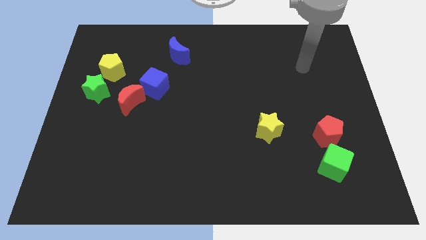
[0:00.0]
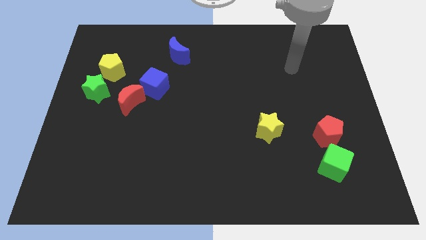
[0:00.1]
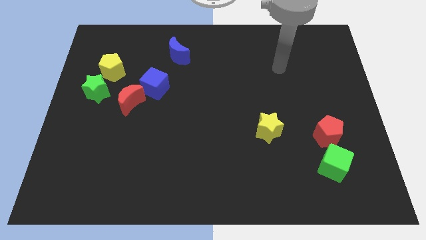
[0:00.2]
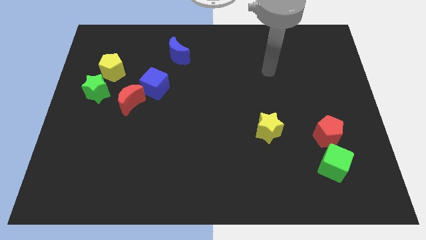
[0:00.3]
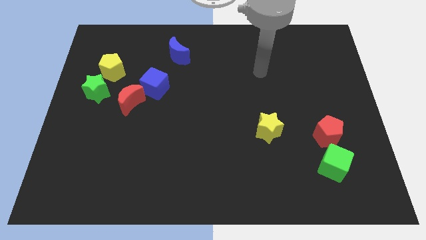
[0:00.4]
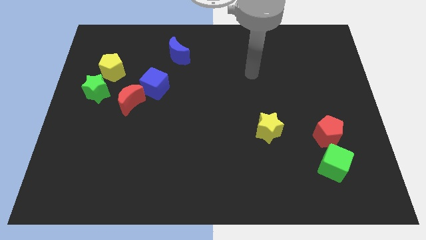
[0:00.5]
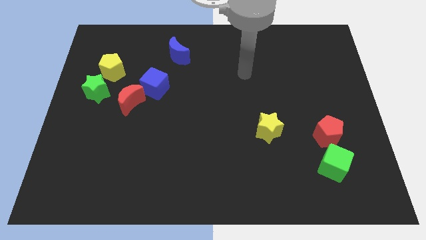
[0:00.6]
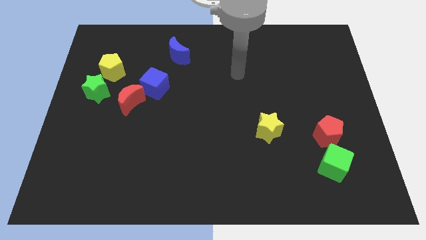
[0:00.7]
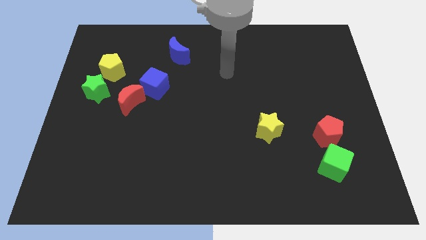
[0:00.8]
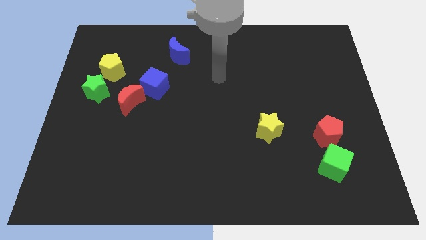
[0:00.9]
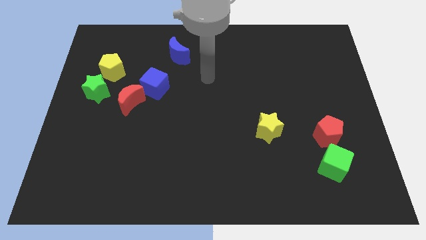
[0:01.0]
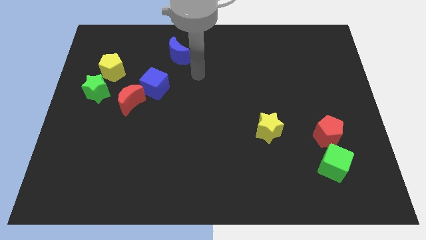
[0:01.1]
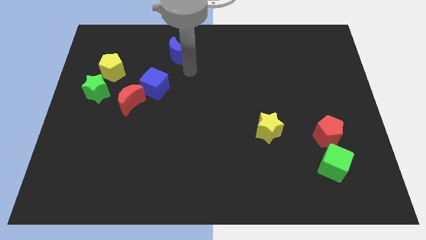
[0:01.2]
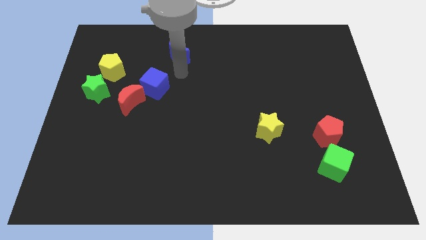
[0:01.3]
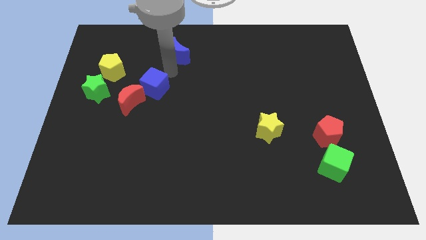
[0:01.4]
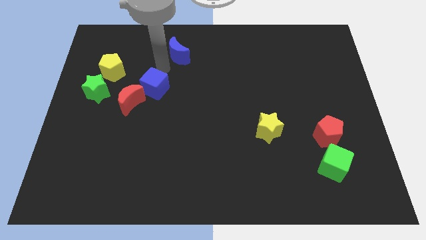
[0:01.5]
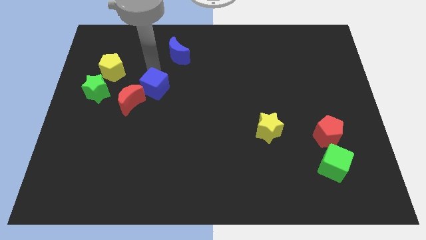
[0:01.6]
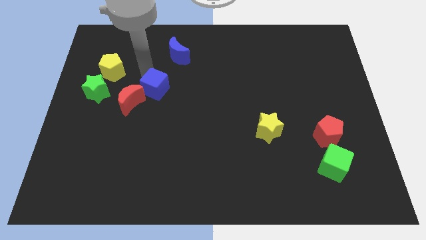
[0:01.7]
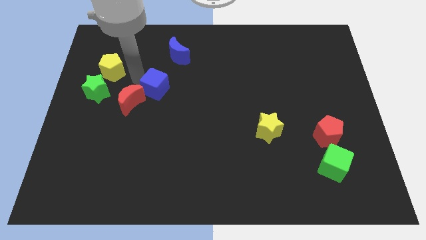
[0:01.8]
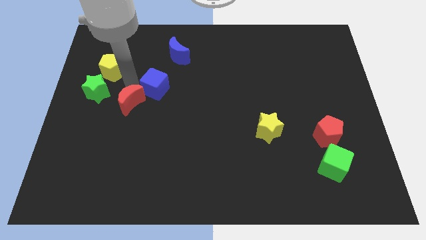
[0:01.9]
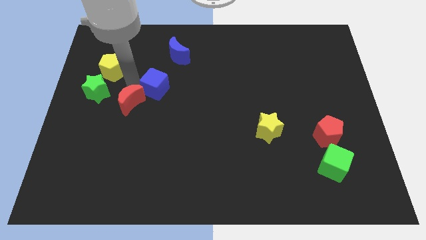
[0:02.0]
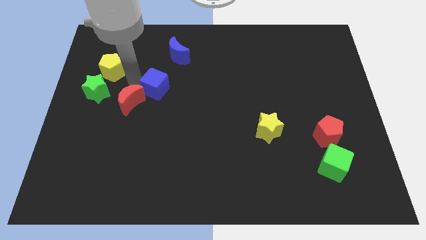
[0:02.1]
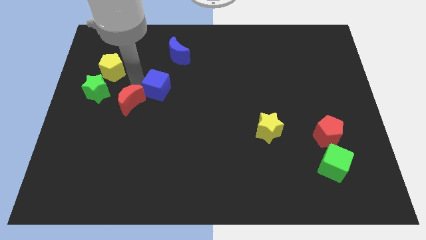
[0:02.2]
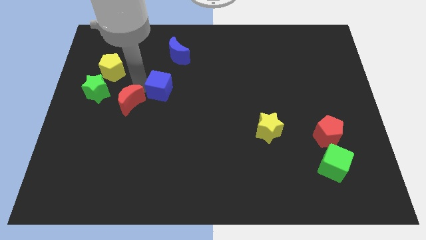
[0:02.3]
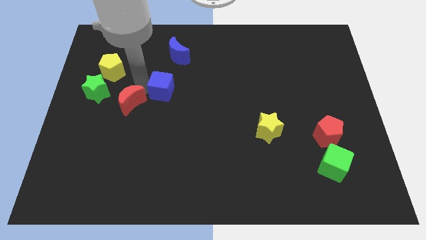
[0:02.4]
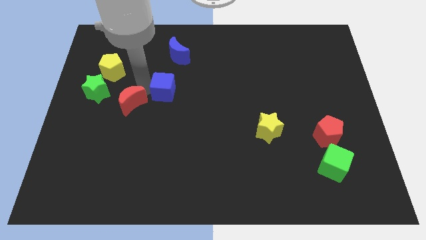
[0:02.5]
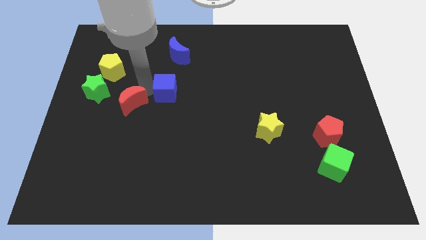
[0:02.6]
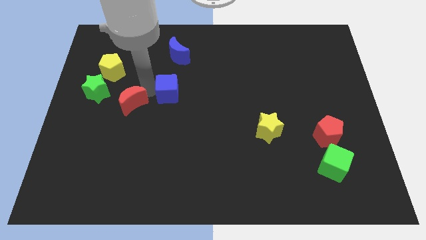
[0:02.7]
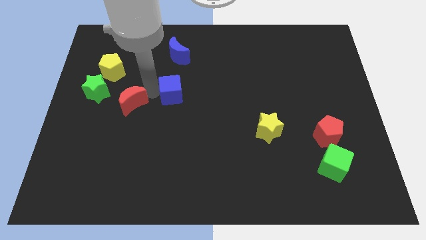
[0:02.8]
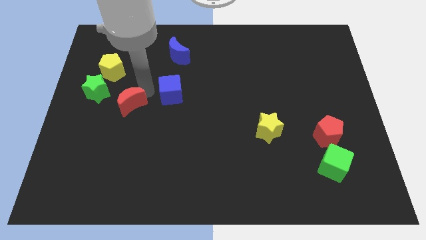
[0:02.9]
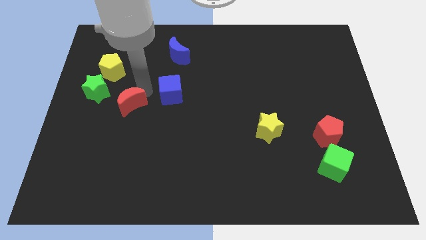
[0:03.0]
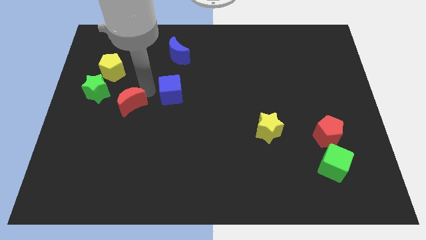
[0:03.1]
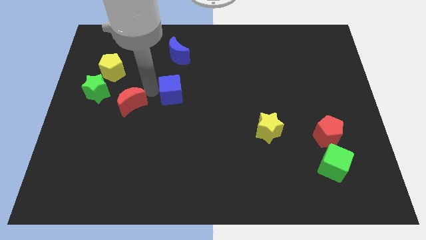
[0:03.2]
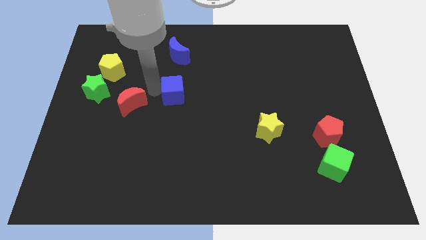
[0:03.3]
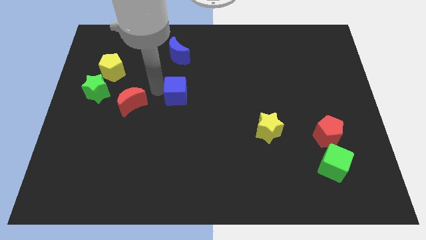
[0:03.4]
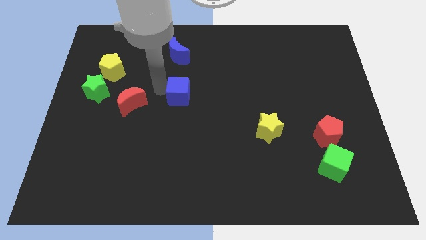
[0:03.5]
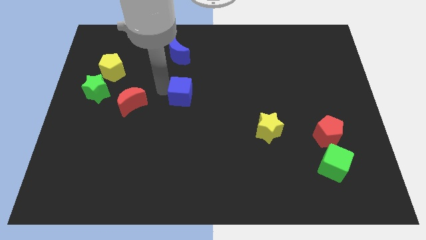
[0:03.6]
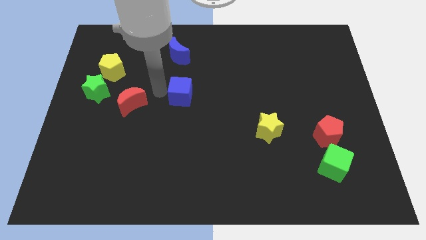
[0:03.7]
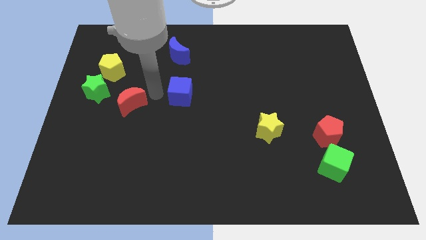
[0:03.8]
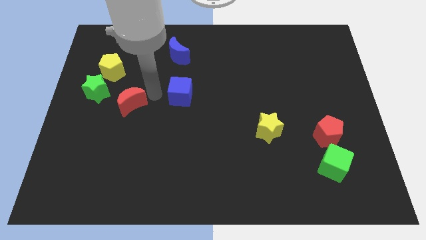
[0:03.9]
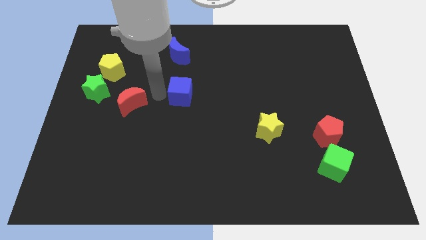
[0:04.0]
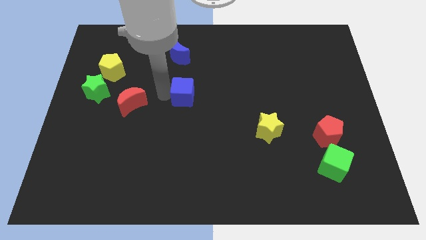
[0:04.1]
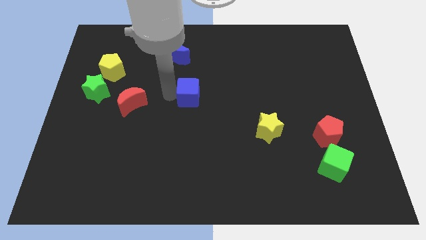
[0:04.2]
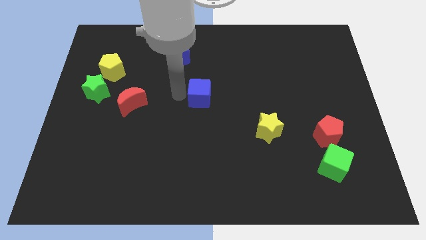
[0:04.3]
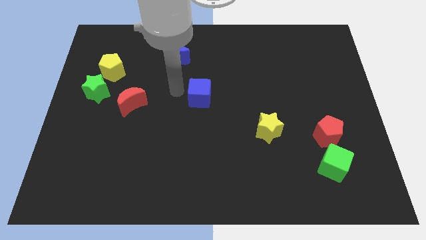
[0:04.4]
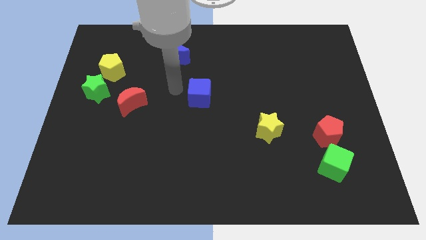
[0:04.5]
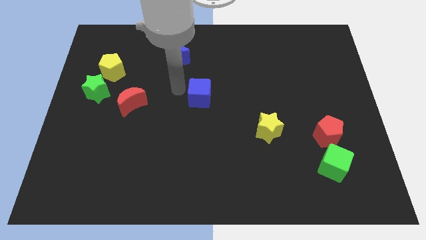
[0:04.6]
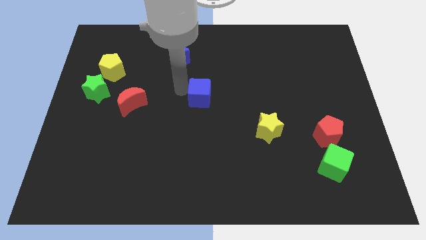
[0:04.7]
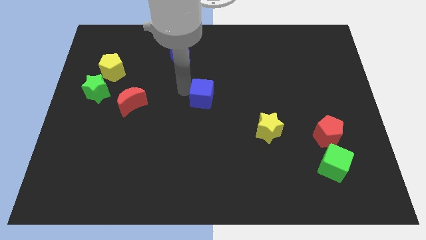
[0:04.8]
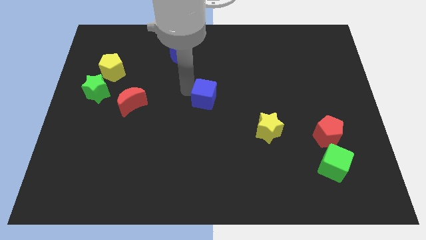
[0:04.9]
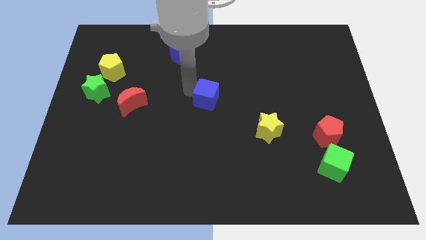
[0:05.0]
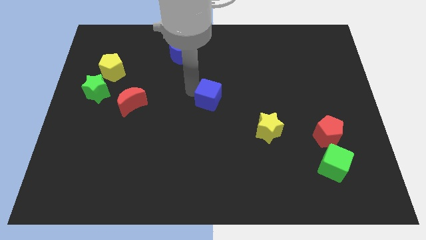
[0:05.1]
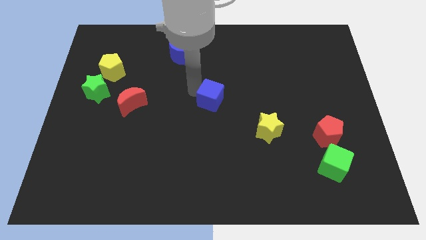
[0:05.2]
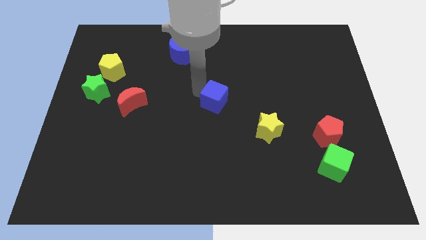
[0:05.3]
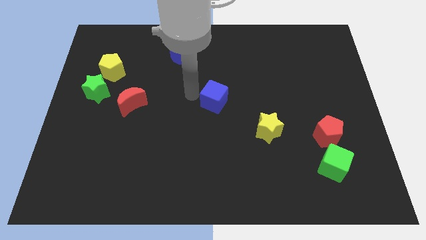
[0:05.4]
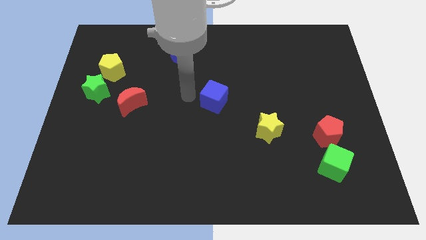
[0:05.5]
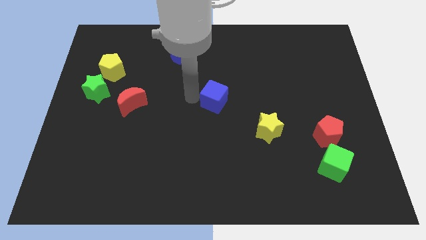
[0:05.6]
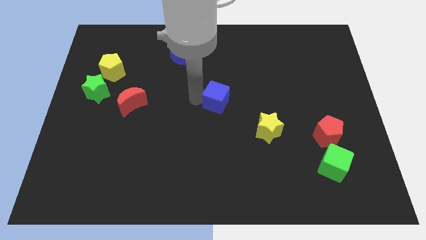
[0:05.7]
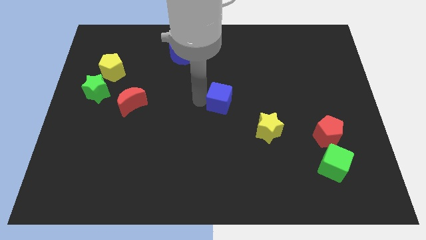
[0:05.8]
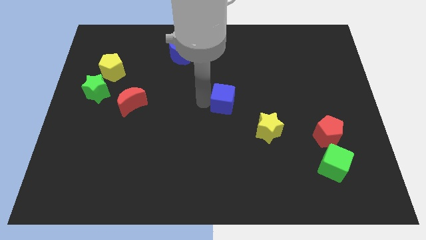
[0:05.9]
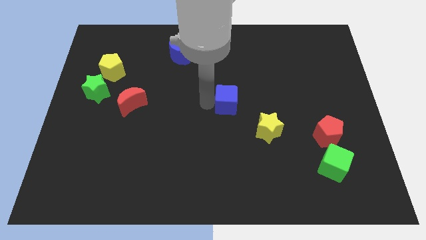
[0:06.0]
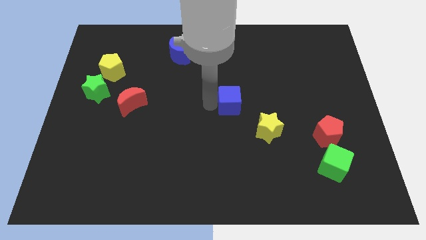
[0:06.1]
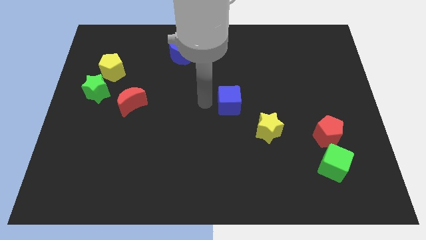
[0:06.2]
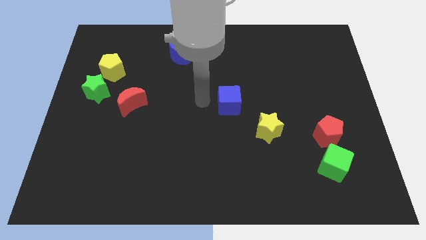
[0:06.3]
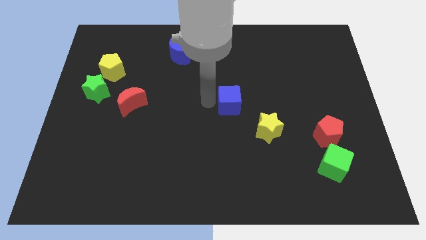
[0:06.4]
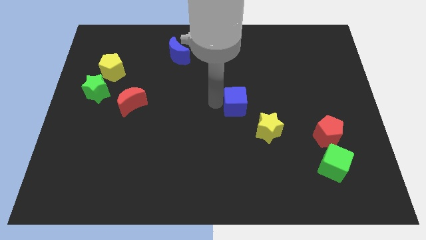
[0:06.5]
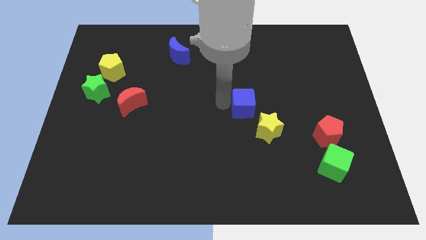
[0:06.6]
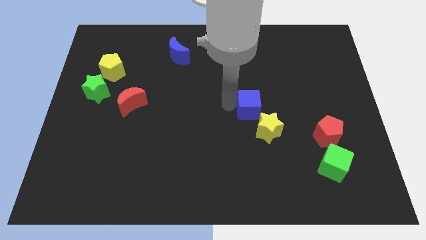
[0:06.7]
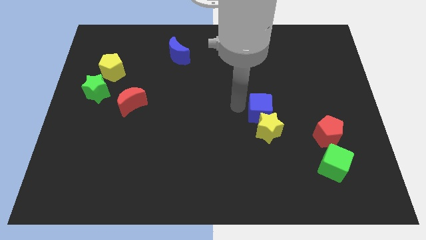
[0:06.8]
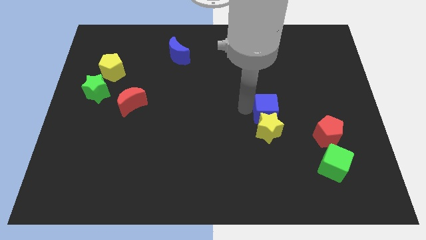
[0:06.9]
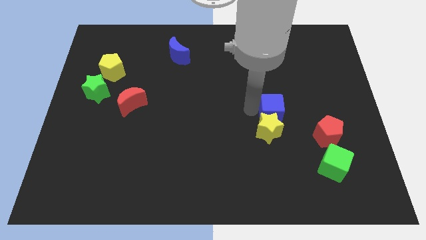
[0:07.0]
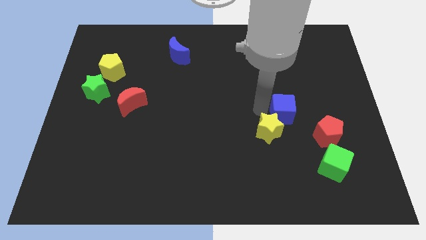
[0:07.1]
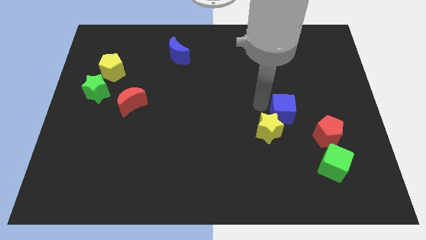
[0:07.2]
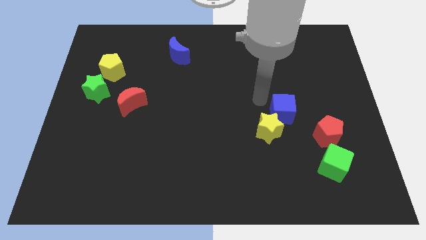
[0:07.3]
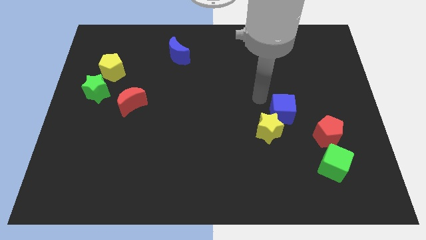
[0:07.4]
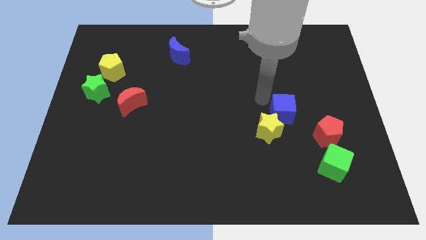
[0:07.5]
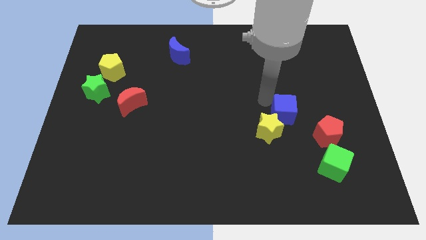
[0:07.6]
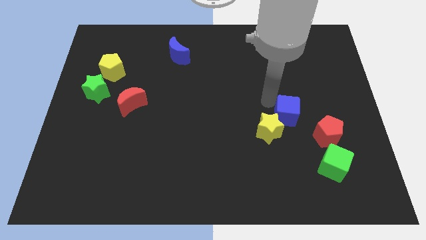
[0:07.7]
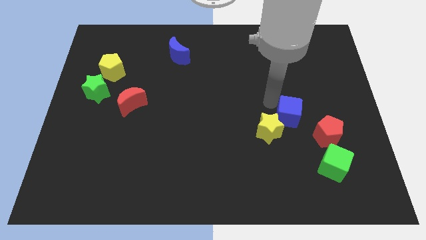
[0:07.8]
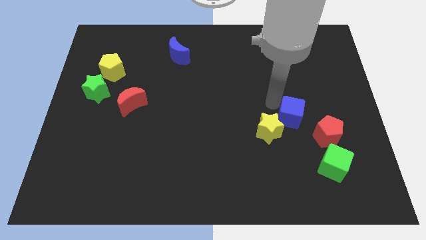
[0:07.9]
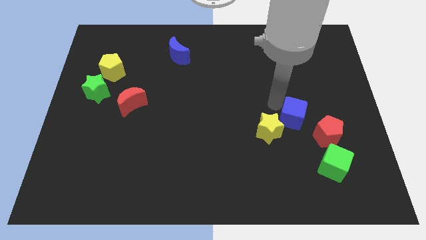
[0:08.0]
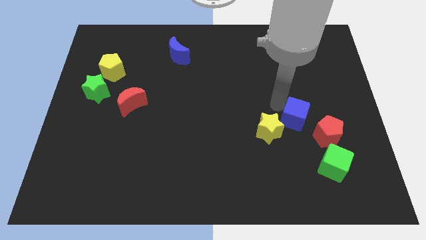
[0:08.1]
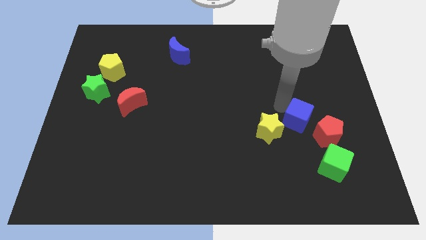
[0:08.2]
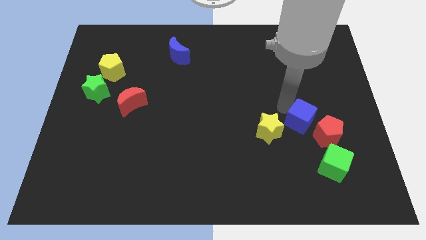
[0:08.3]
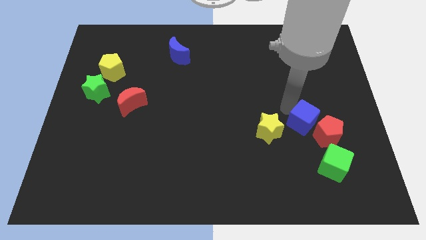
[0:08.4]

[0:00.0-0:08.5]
push the blue cube close to the red pentagon
